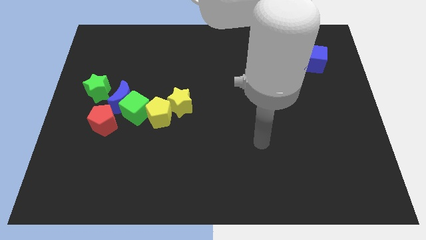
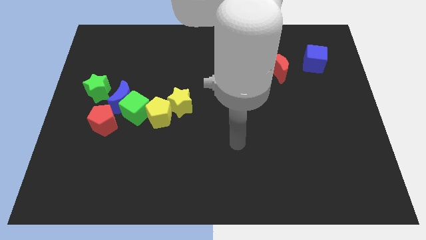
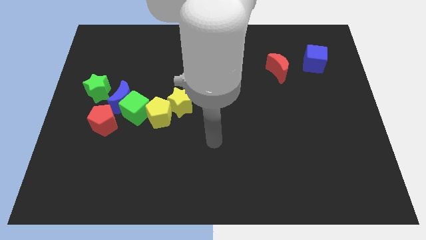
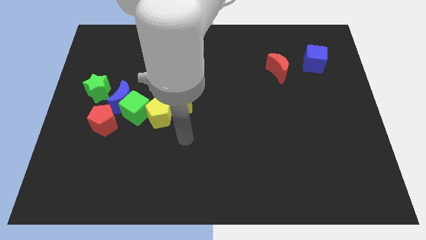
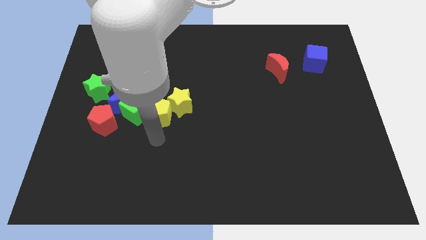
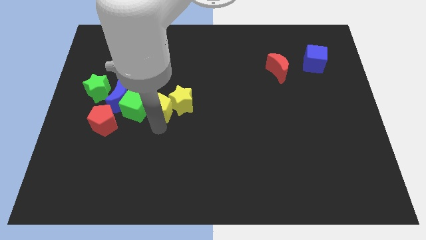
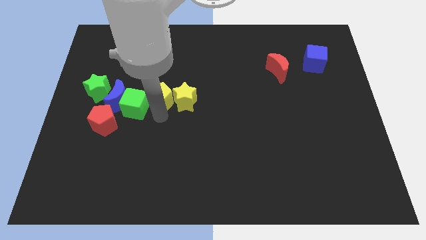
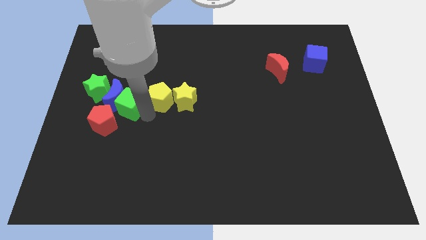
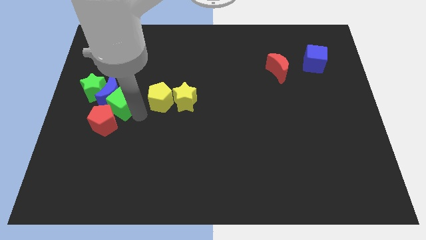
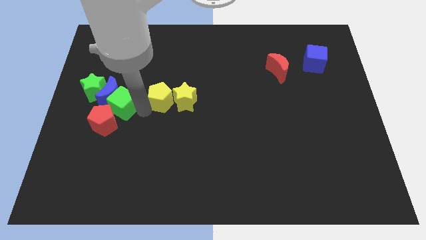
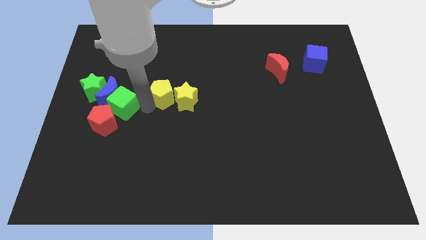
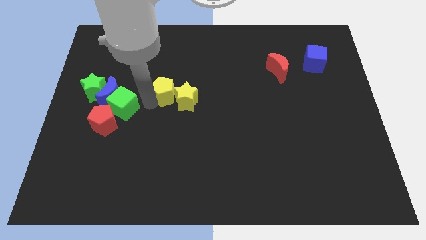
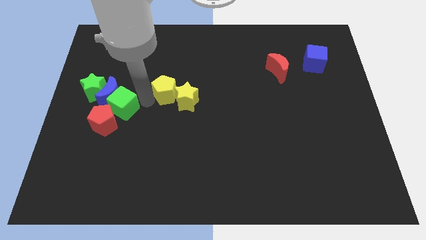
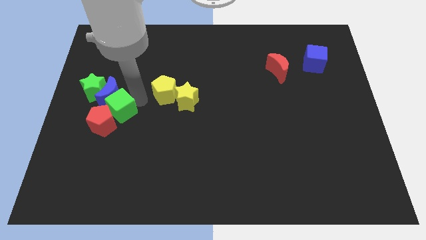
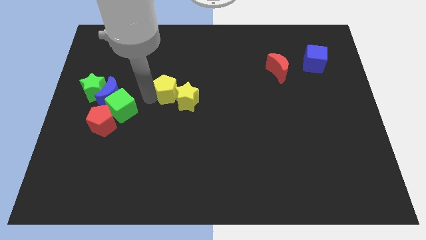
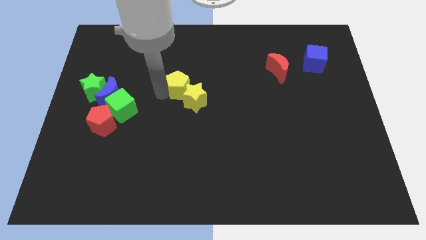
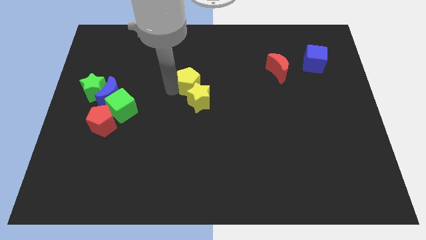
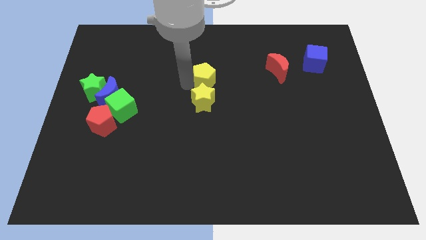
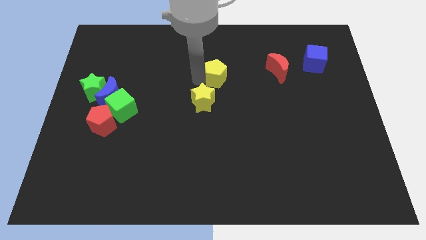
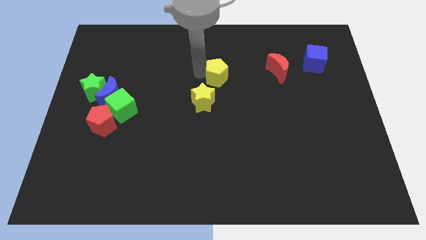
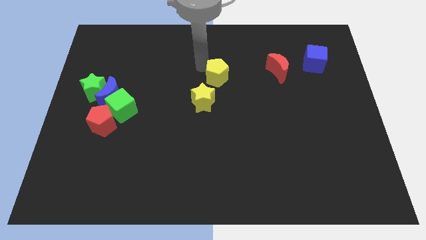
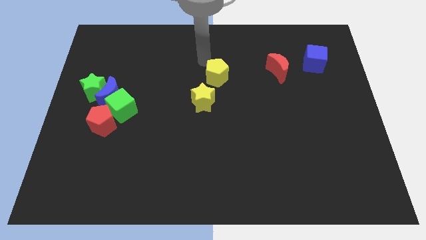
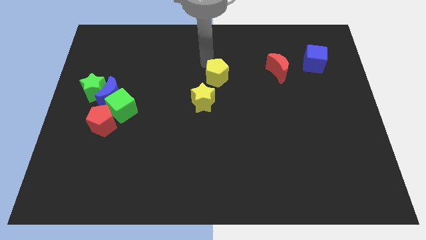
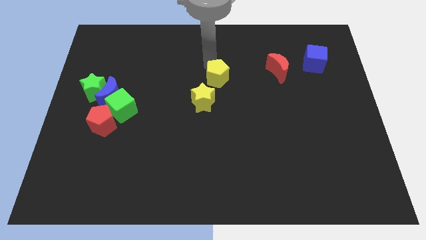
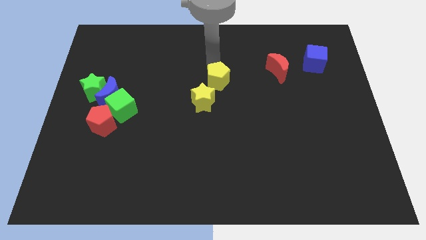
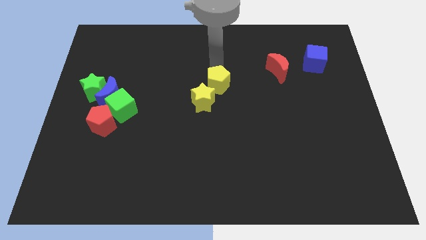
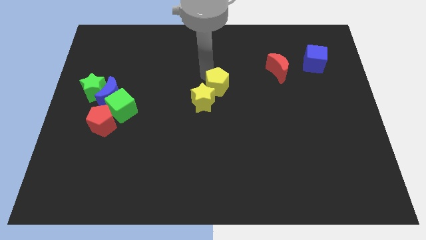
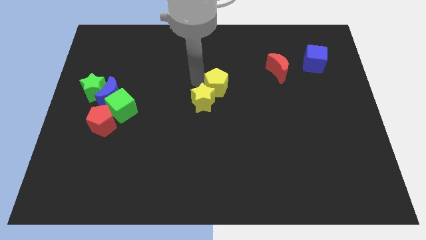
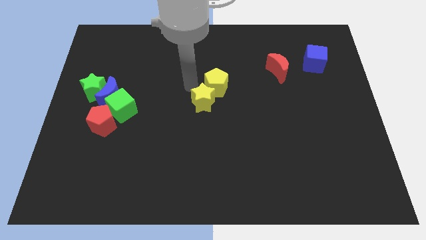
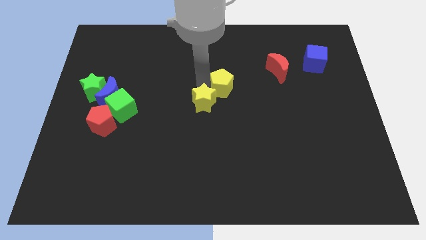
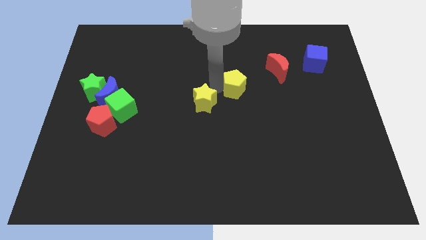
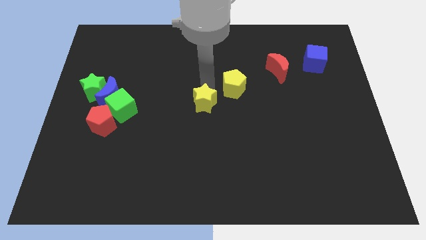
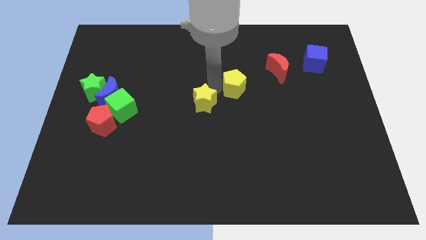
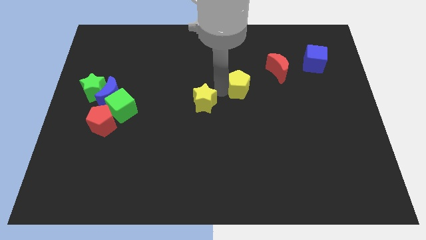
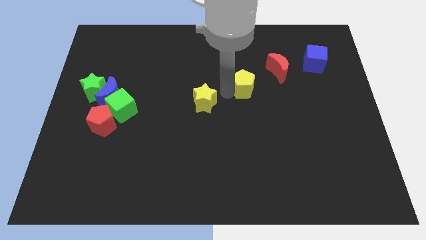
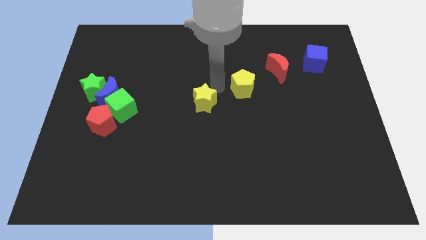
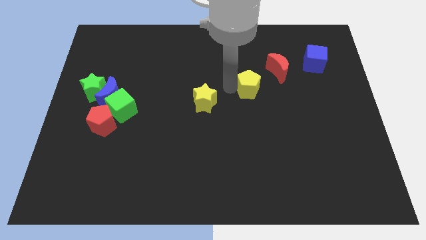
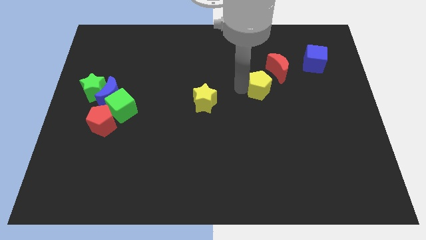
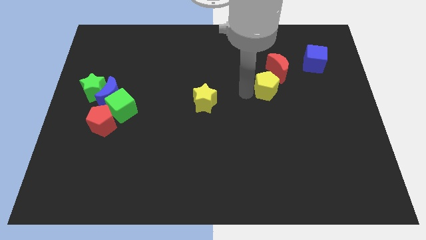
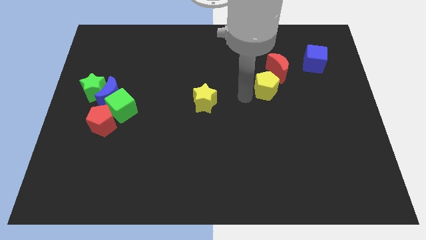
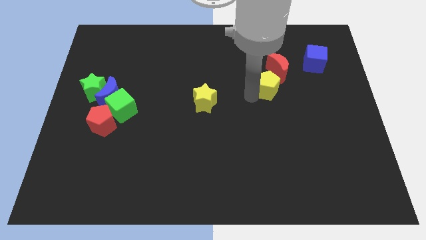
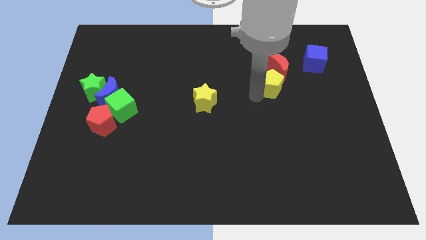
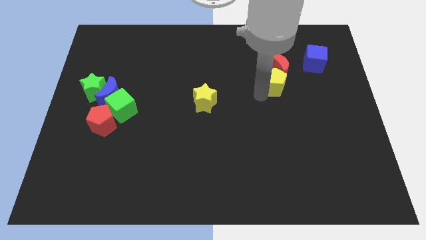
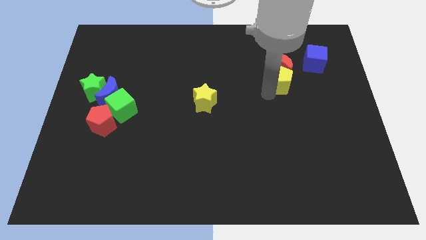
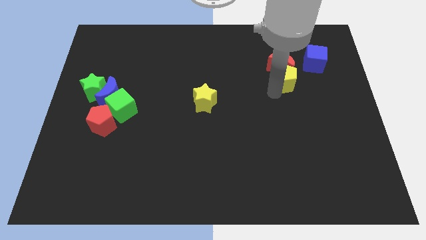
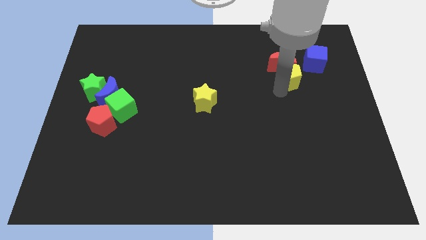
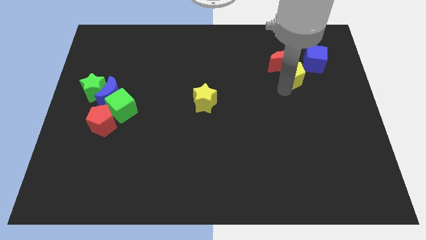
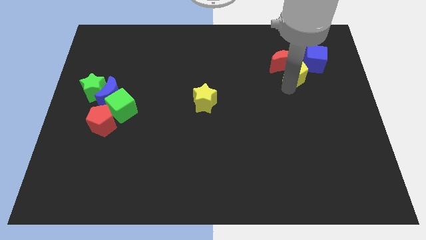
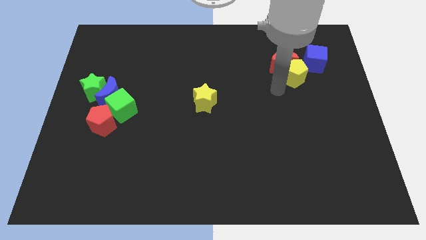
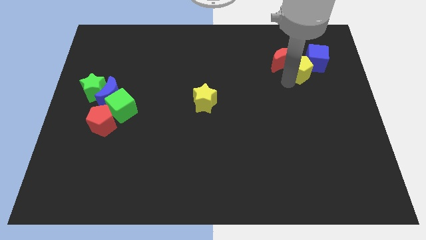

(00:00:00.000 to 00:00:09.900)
push the yellow pentagon towards the blue cube

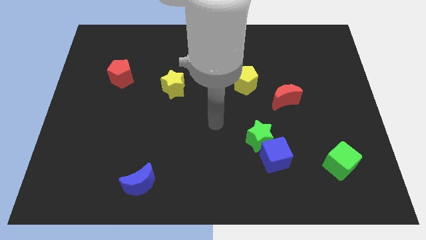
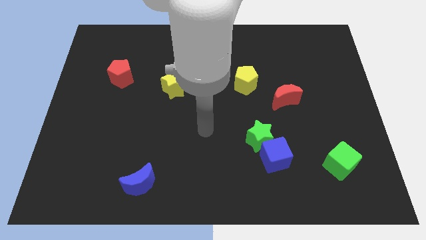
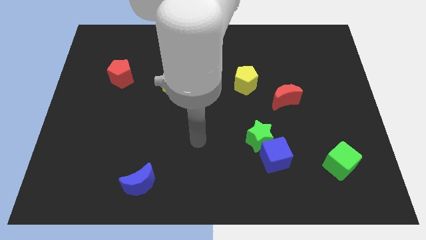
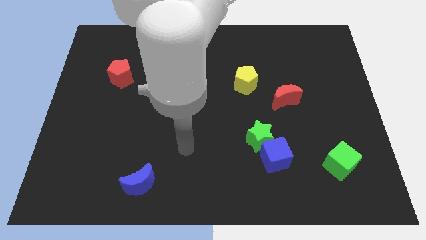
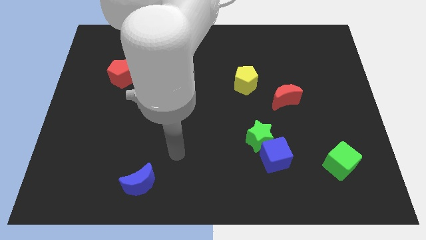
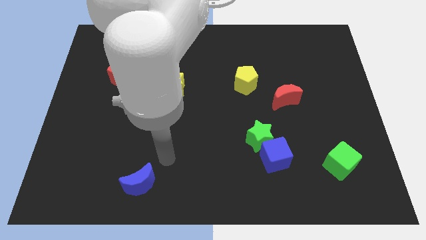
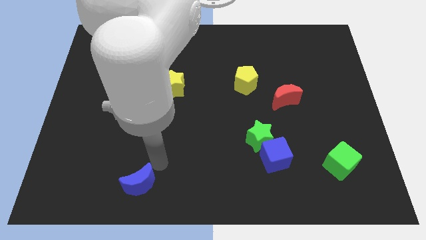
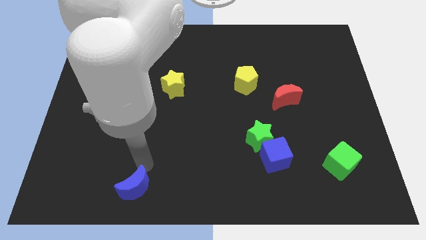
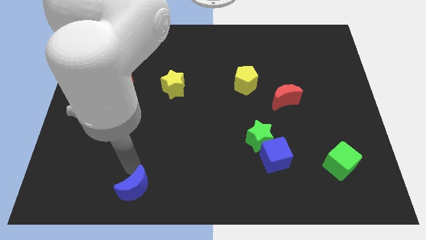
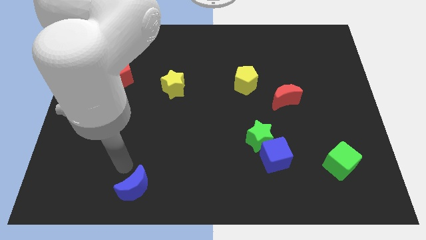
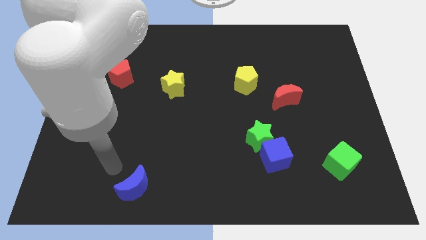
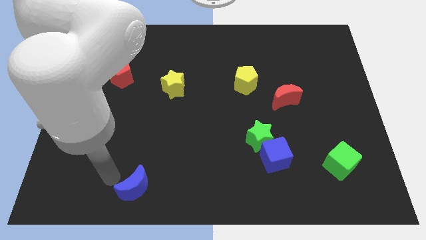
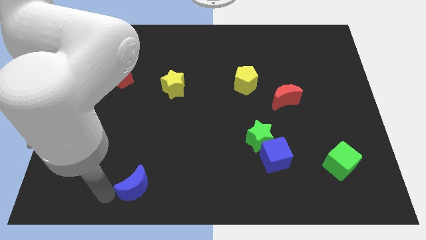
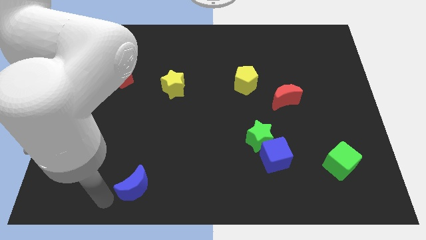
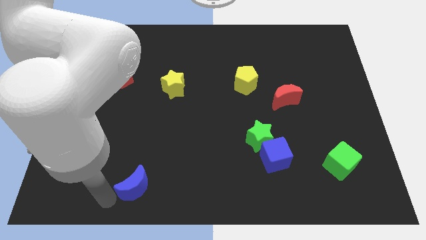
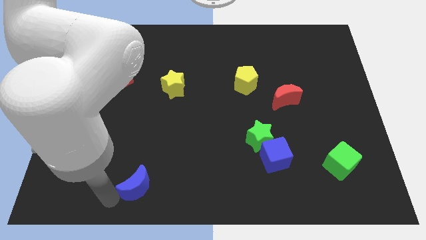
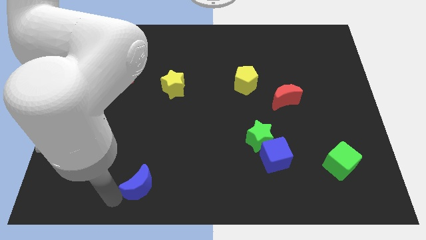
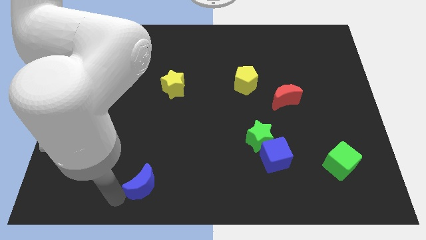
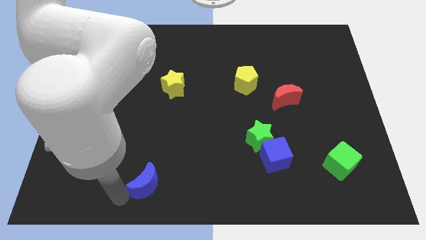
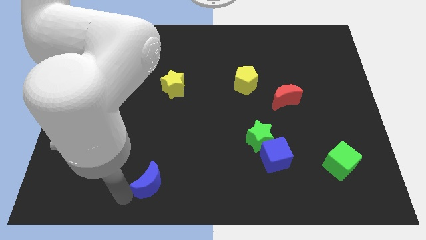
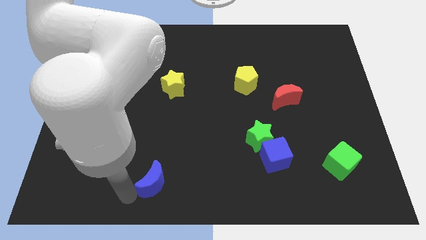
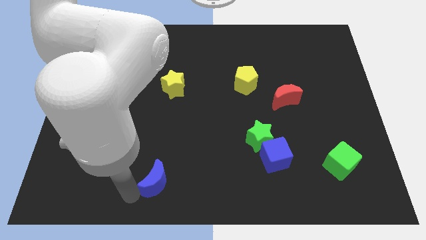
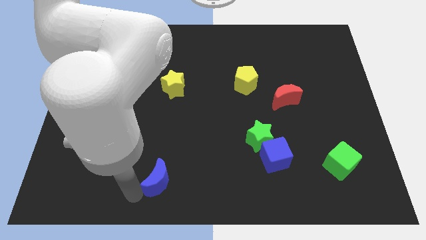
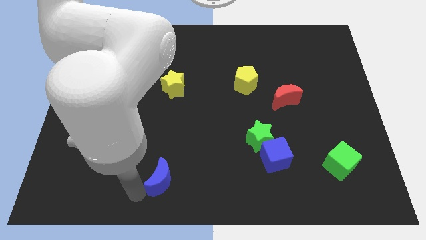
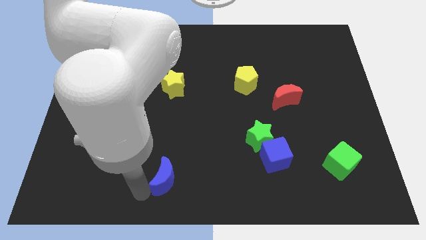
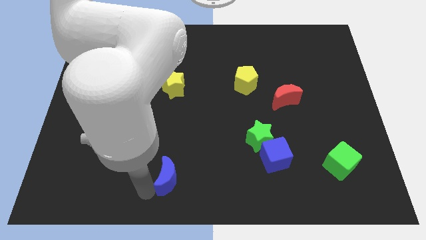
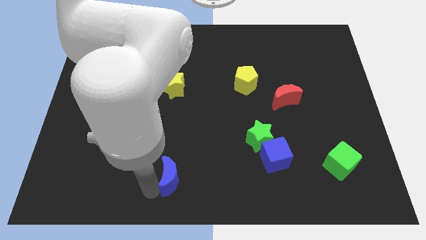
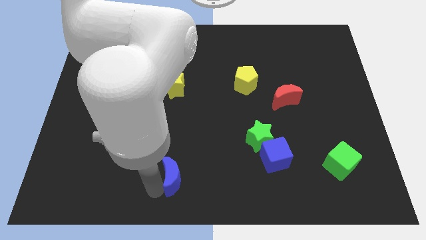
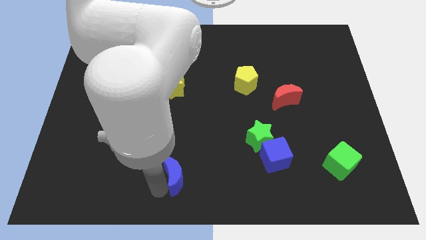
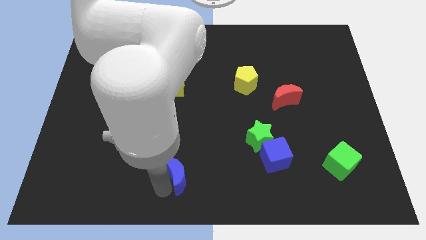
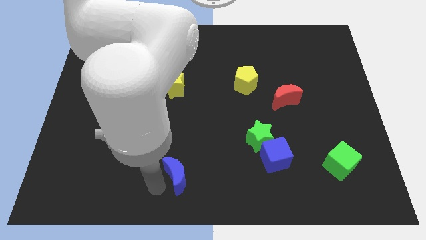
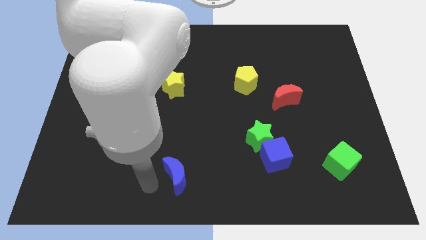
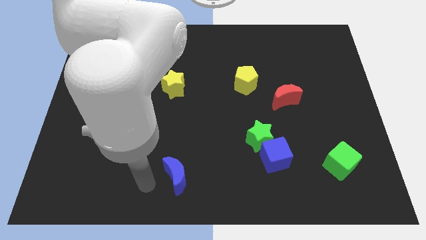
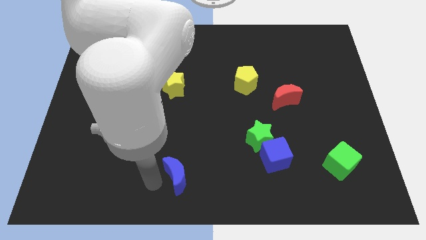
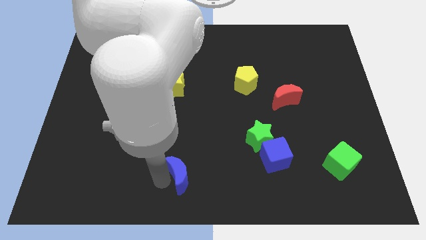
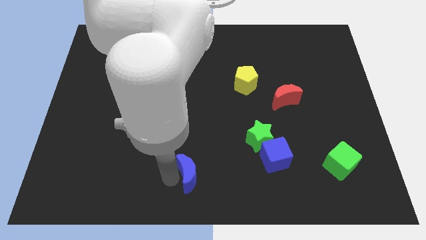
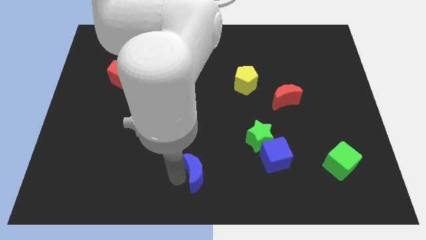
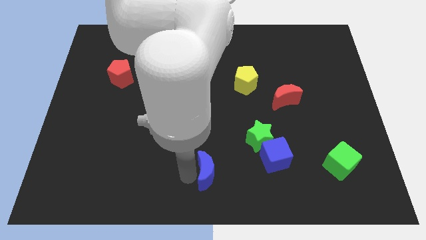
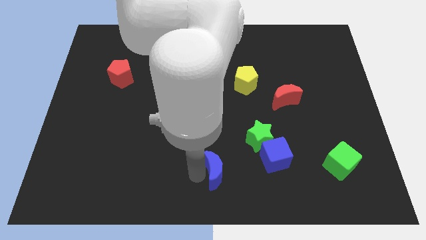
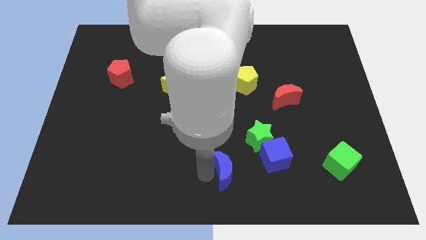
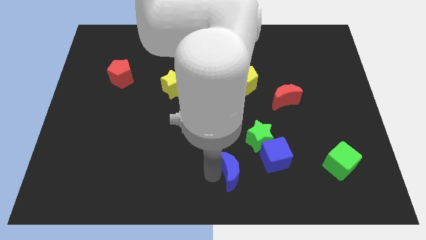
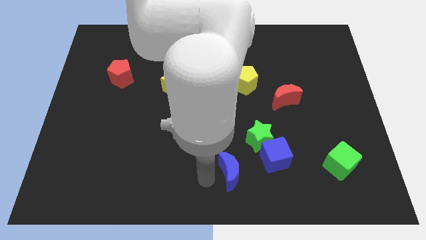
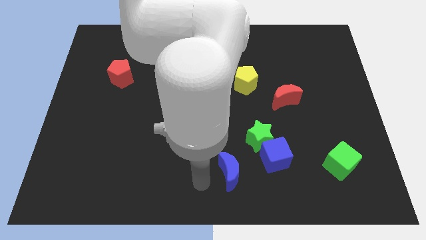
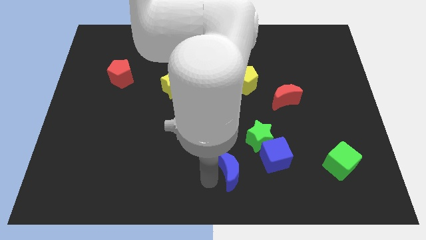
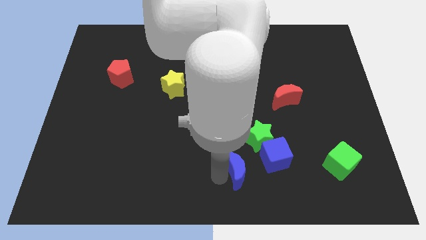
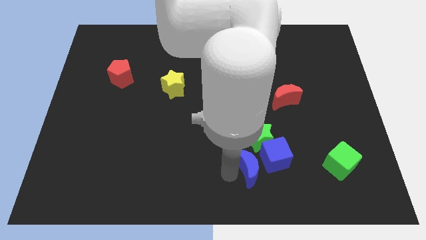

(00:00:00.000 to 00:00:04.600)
push the blue moon to the blue cube
